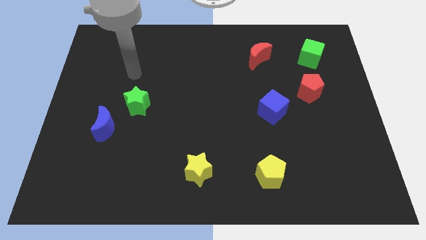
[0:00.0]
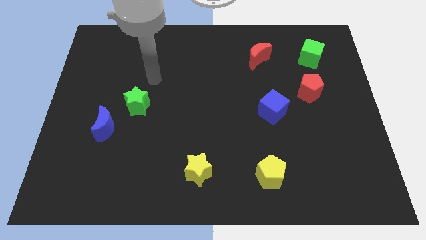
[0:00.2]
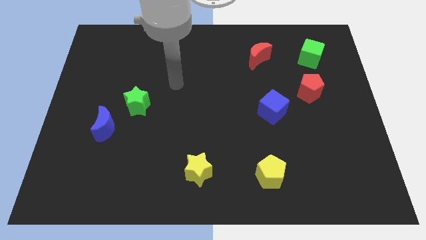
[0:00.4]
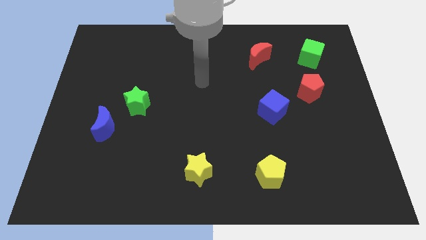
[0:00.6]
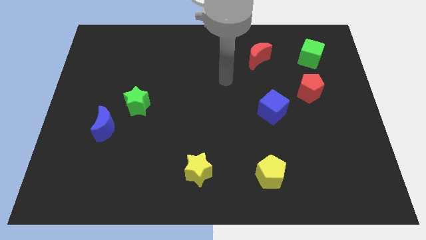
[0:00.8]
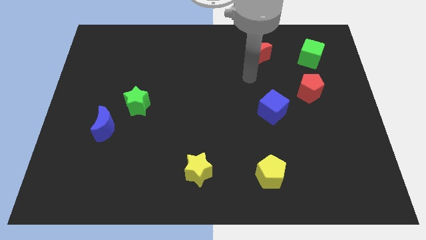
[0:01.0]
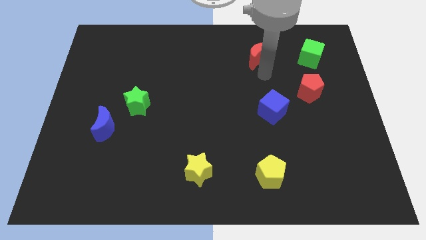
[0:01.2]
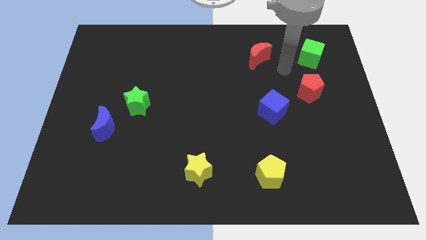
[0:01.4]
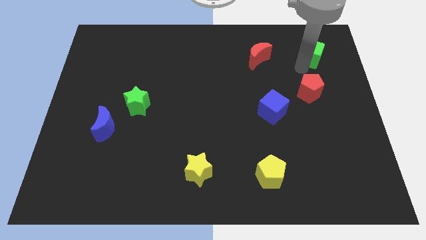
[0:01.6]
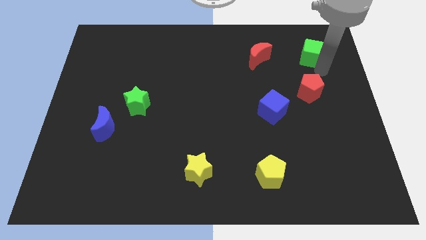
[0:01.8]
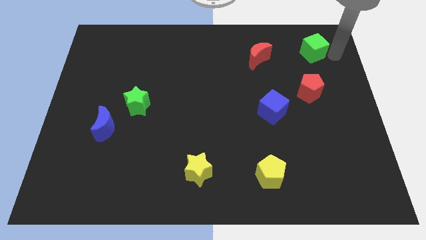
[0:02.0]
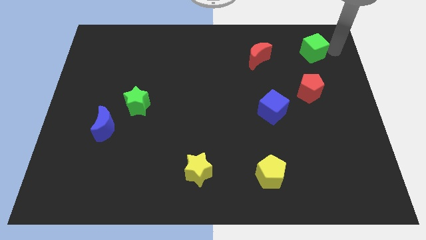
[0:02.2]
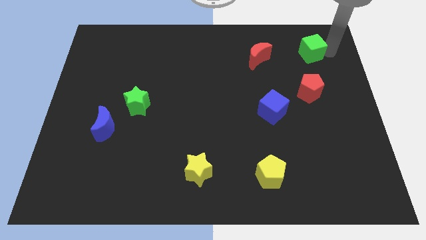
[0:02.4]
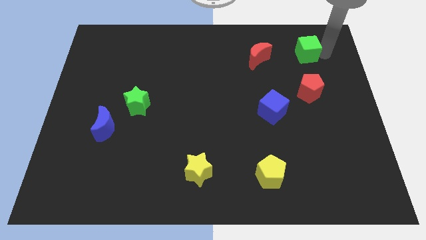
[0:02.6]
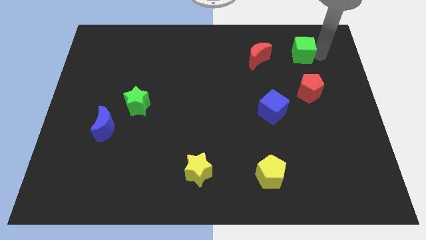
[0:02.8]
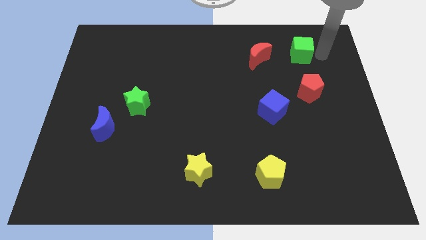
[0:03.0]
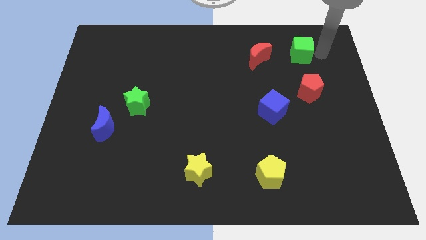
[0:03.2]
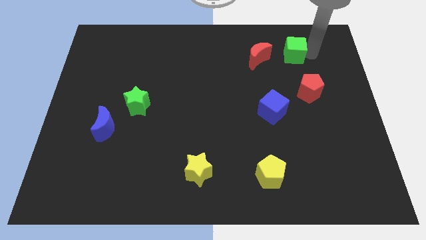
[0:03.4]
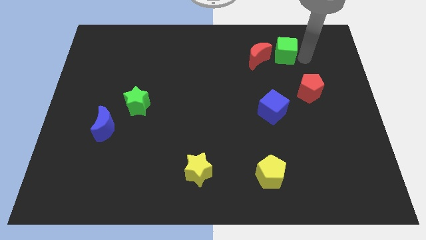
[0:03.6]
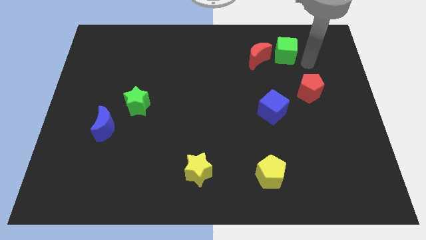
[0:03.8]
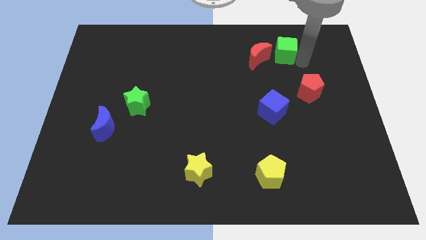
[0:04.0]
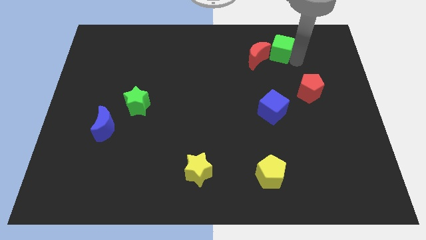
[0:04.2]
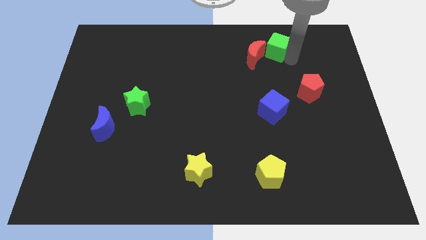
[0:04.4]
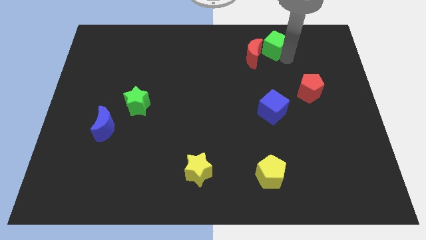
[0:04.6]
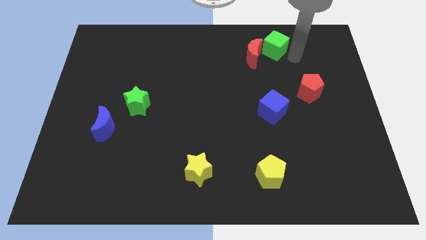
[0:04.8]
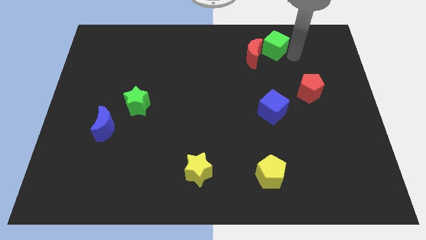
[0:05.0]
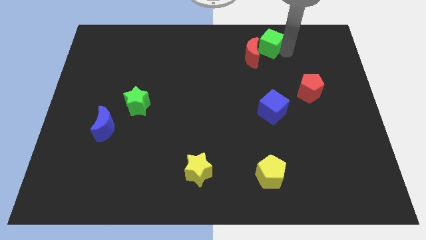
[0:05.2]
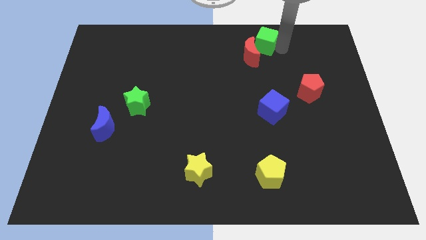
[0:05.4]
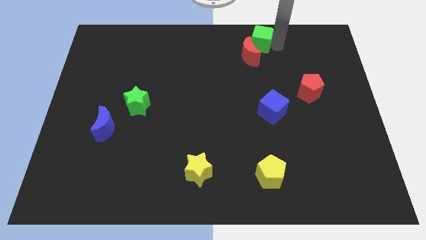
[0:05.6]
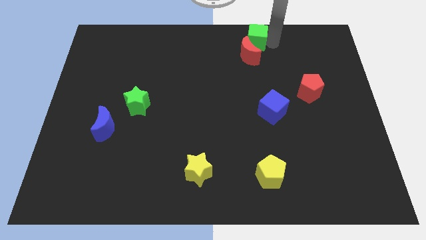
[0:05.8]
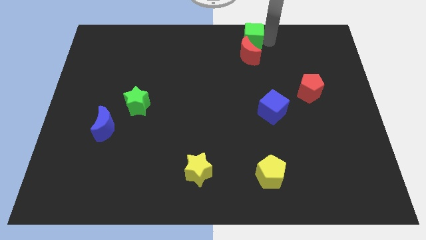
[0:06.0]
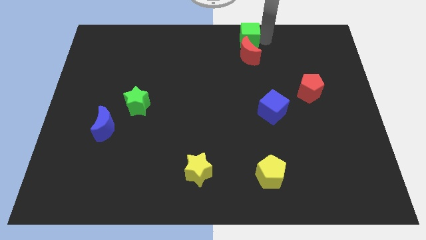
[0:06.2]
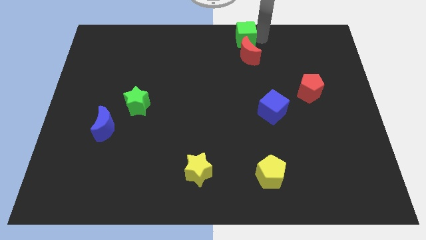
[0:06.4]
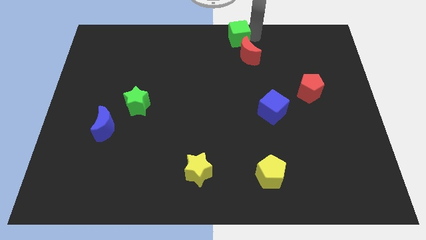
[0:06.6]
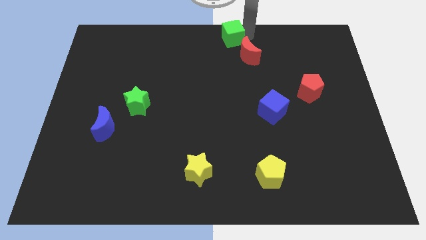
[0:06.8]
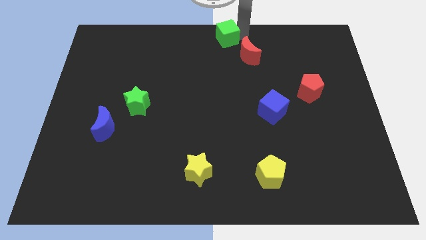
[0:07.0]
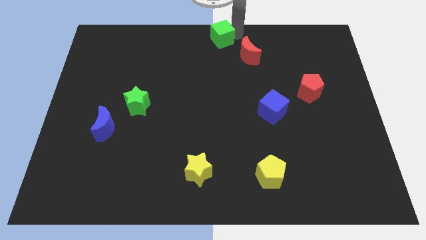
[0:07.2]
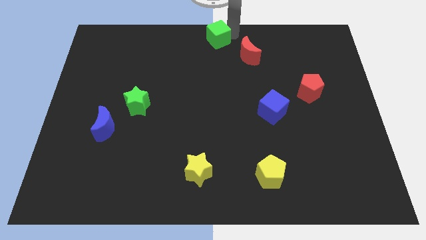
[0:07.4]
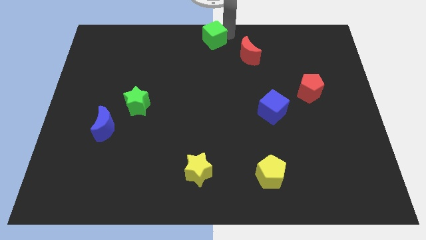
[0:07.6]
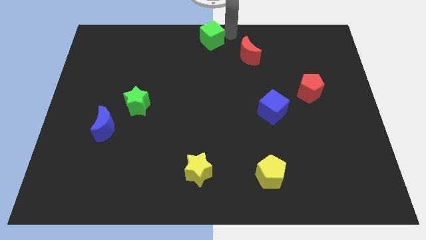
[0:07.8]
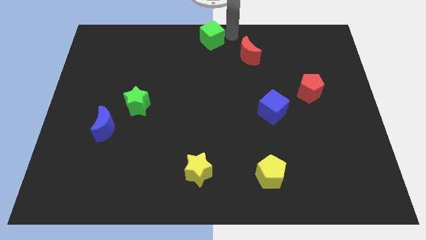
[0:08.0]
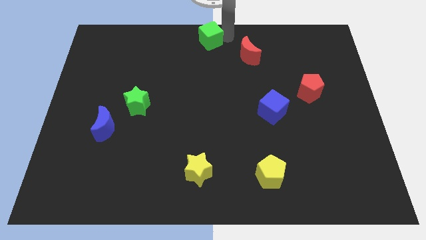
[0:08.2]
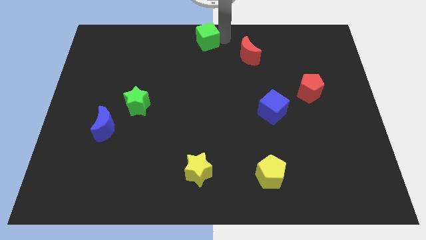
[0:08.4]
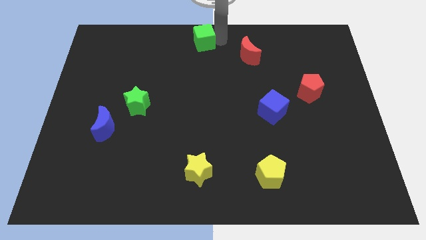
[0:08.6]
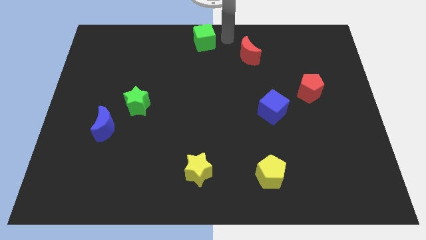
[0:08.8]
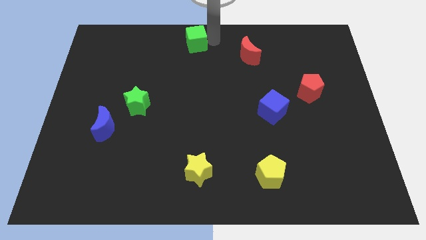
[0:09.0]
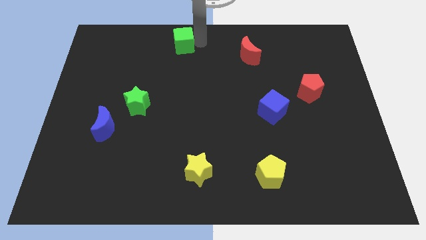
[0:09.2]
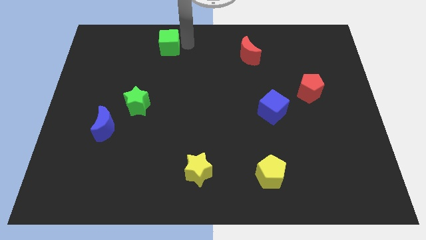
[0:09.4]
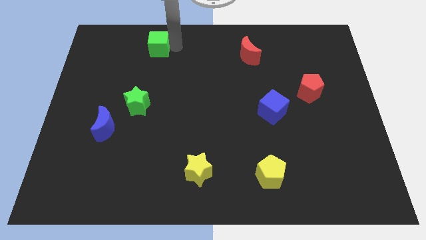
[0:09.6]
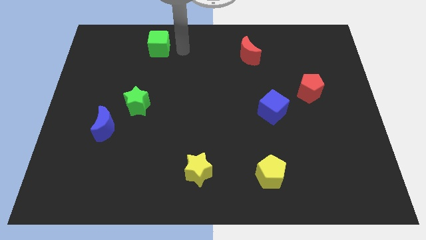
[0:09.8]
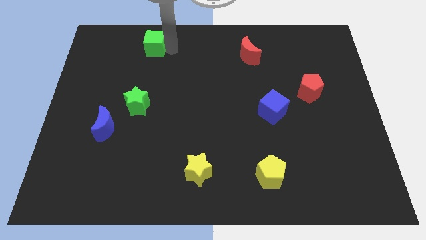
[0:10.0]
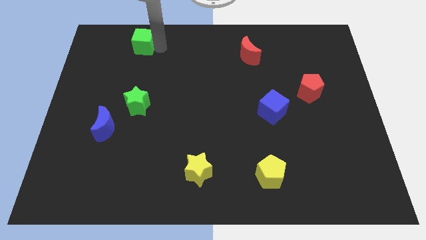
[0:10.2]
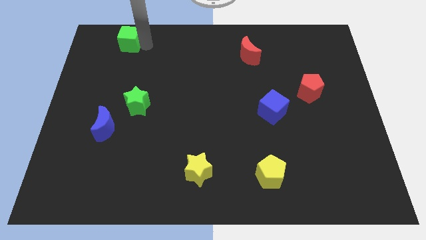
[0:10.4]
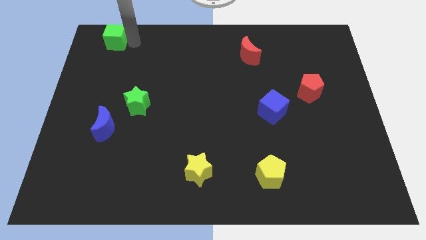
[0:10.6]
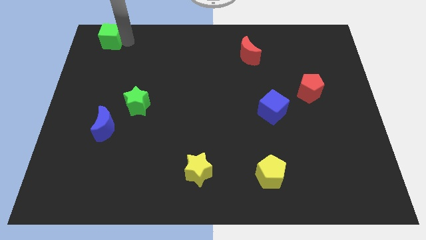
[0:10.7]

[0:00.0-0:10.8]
move the green cube to the top left of the board

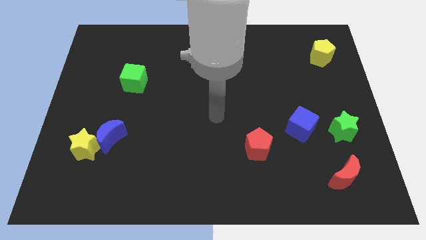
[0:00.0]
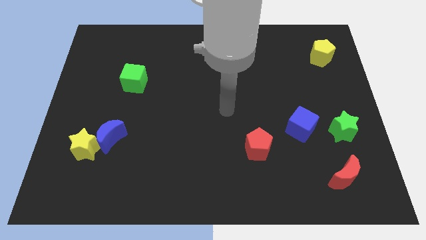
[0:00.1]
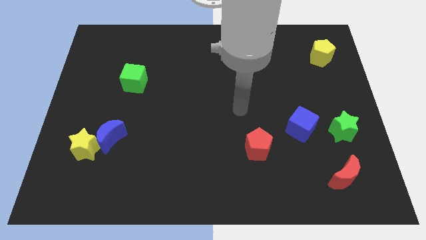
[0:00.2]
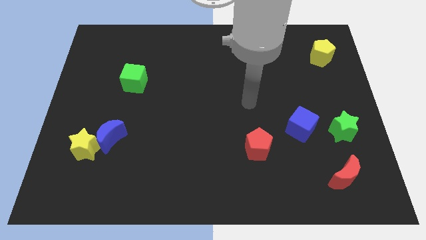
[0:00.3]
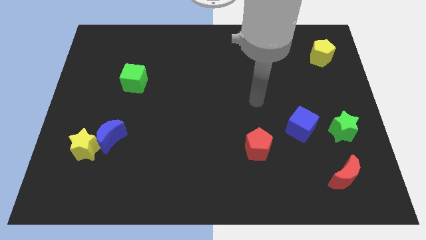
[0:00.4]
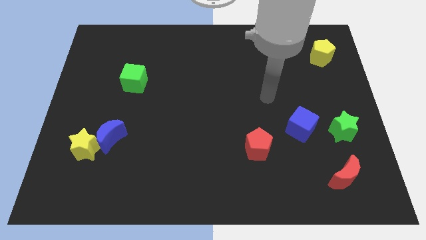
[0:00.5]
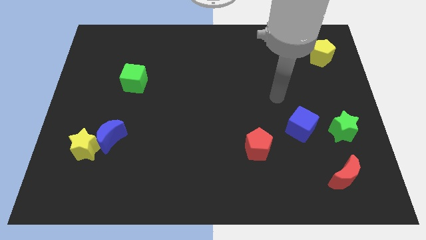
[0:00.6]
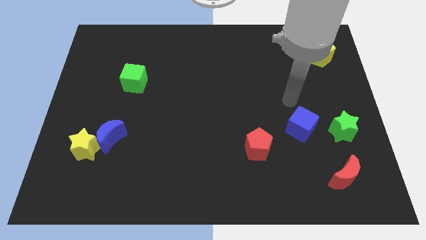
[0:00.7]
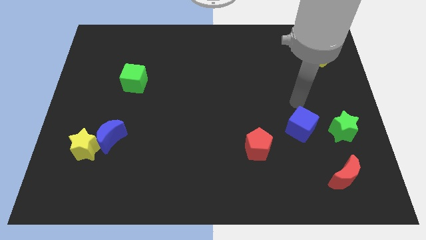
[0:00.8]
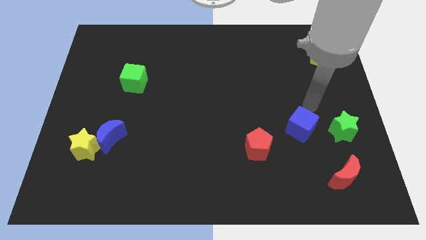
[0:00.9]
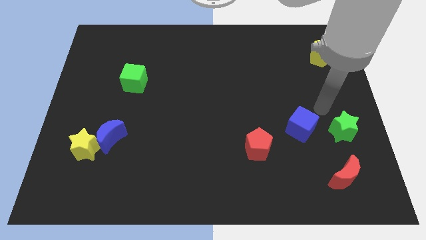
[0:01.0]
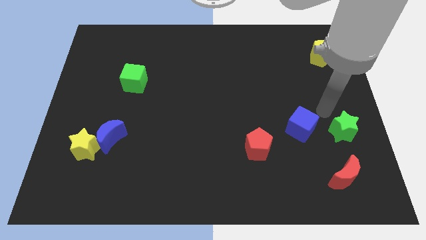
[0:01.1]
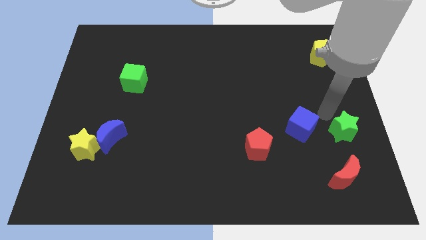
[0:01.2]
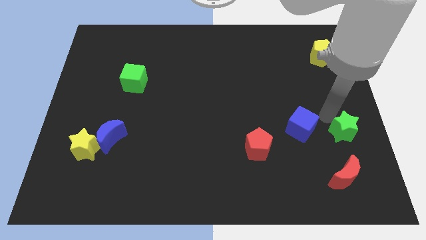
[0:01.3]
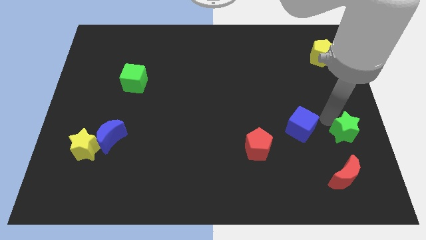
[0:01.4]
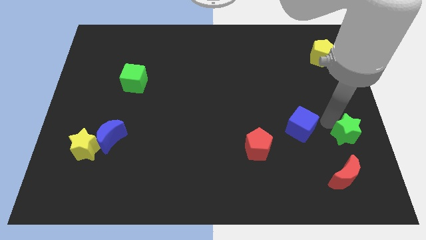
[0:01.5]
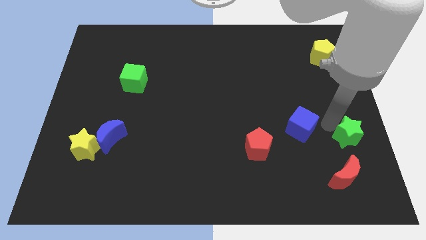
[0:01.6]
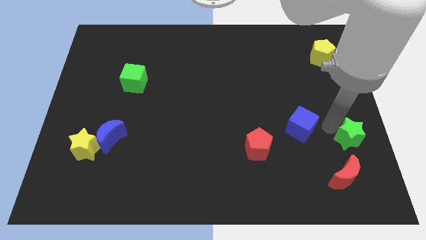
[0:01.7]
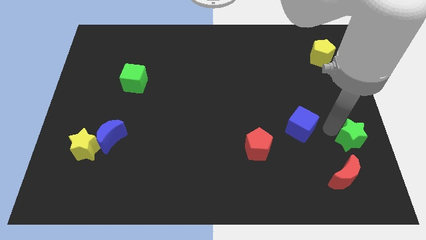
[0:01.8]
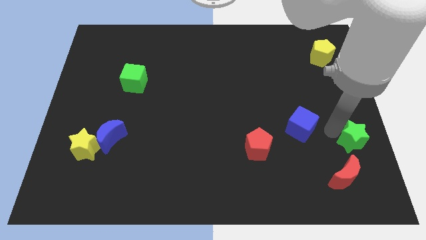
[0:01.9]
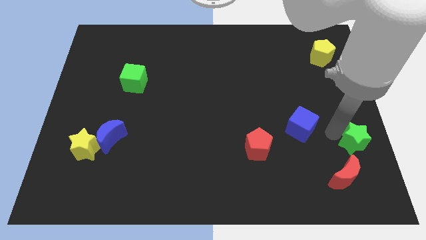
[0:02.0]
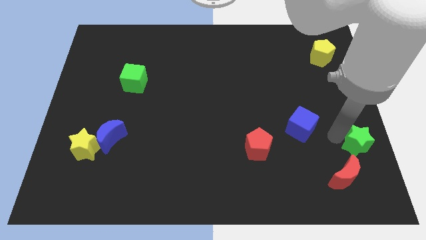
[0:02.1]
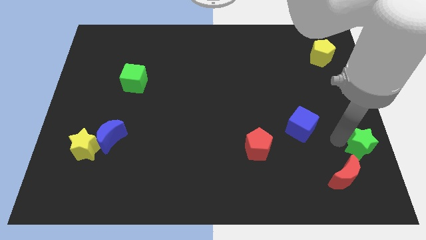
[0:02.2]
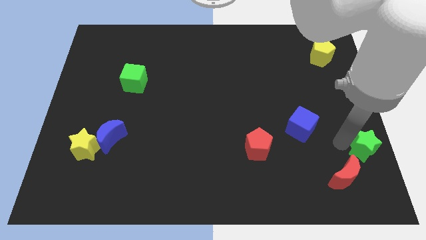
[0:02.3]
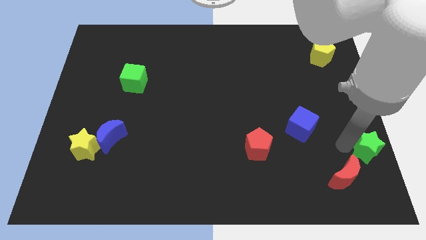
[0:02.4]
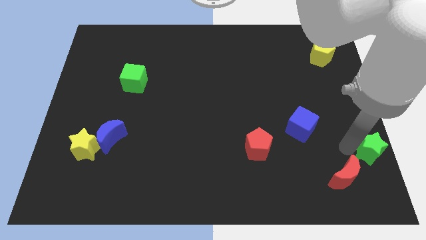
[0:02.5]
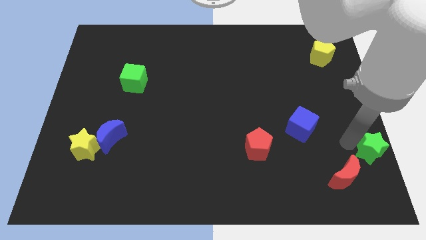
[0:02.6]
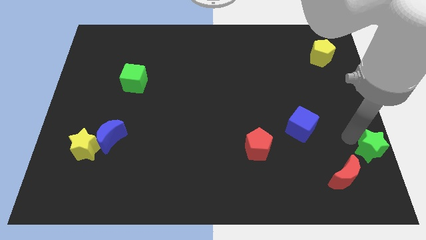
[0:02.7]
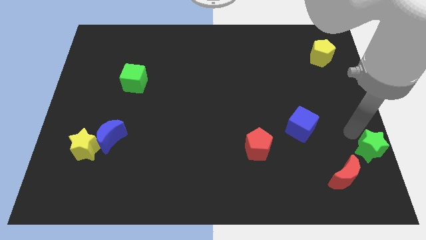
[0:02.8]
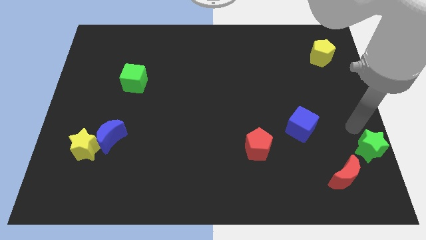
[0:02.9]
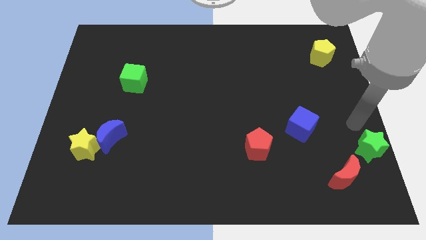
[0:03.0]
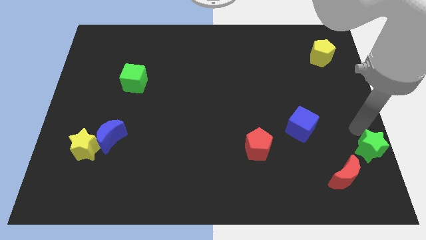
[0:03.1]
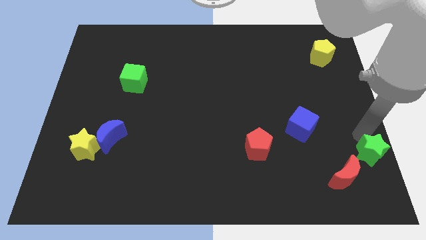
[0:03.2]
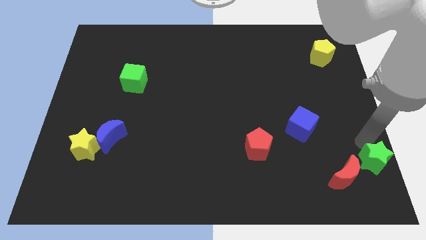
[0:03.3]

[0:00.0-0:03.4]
put the green star to the bottom right corner
